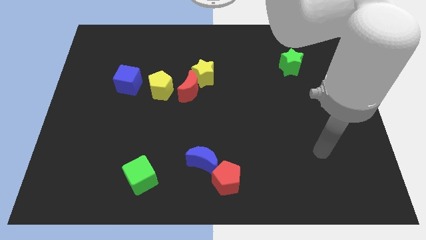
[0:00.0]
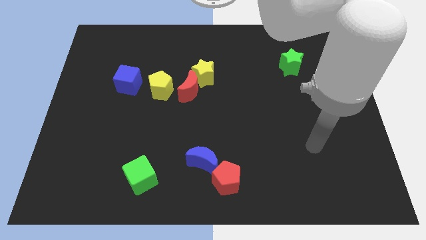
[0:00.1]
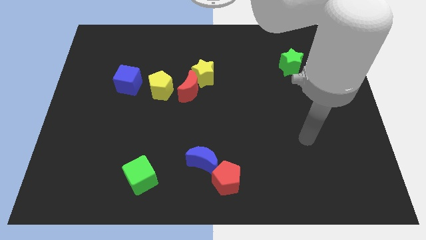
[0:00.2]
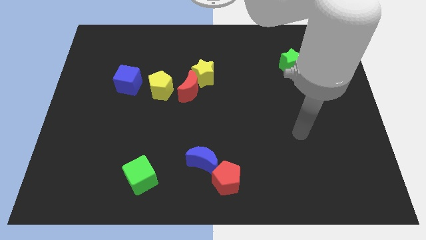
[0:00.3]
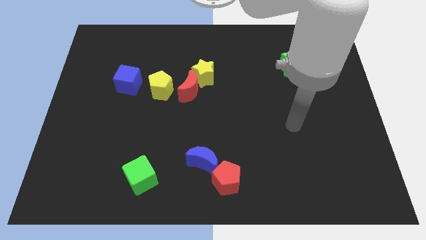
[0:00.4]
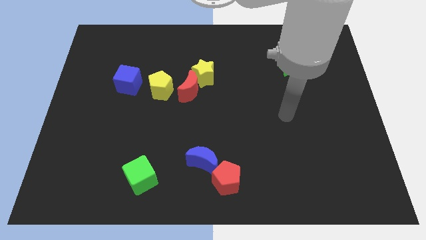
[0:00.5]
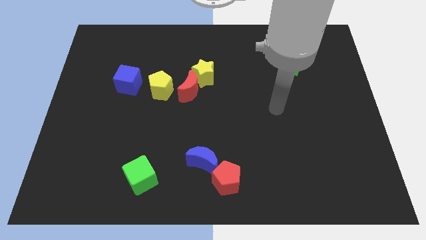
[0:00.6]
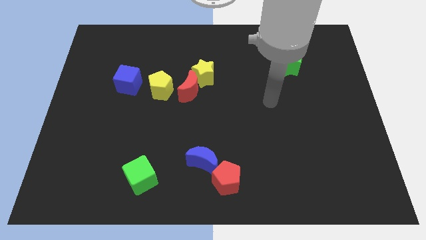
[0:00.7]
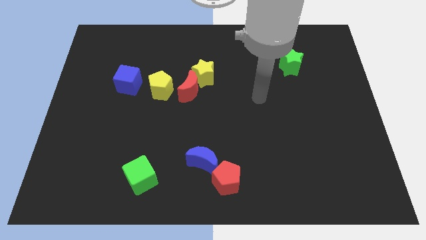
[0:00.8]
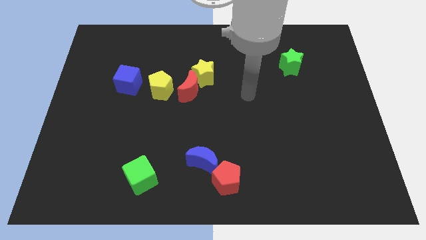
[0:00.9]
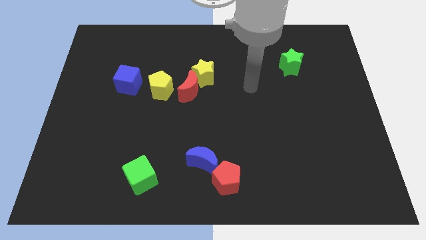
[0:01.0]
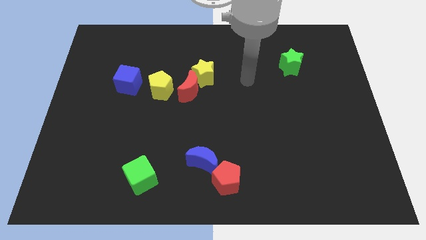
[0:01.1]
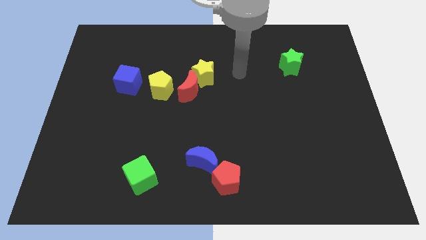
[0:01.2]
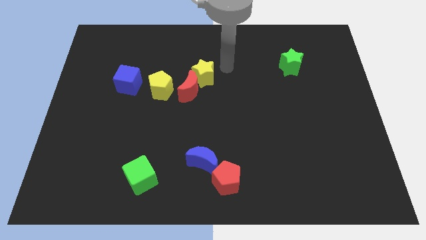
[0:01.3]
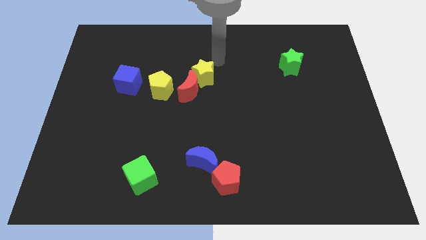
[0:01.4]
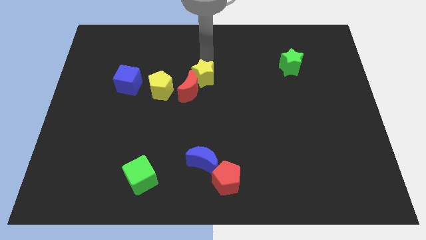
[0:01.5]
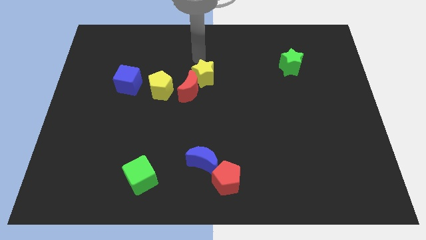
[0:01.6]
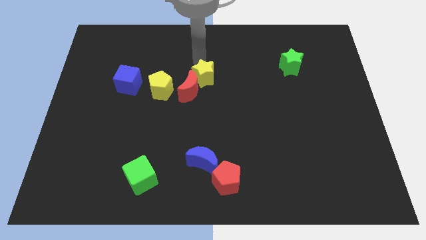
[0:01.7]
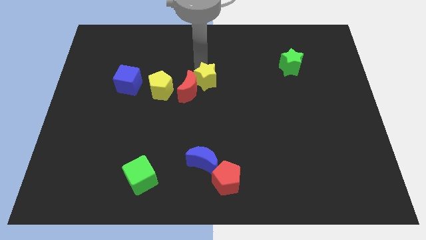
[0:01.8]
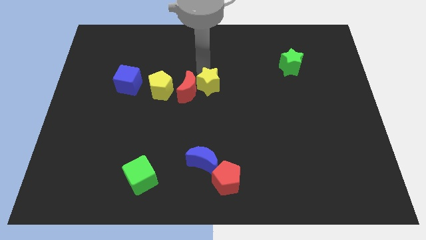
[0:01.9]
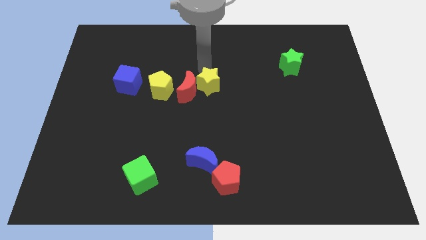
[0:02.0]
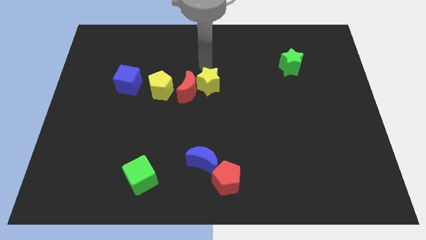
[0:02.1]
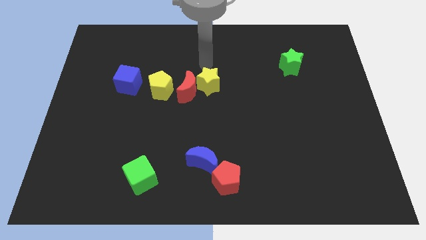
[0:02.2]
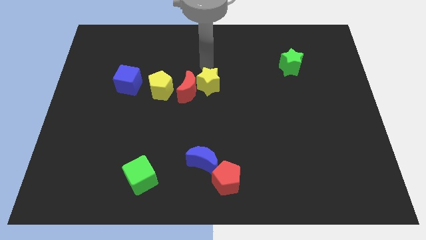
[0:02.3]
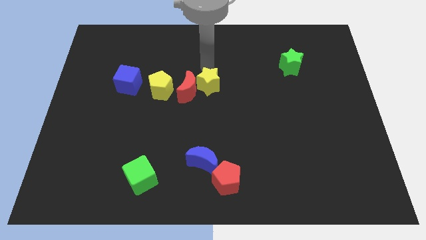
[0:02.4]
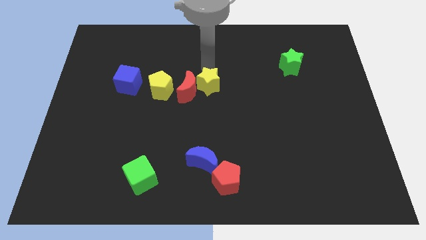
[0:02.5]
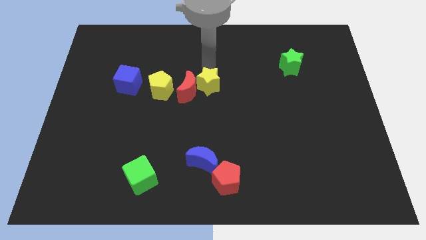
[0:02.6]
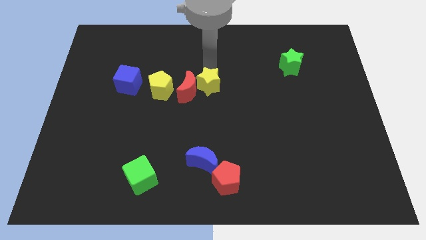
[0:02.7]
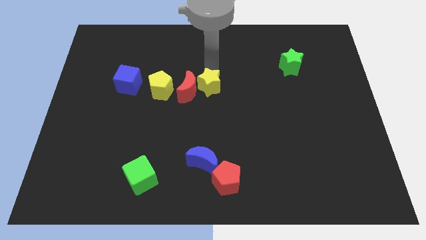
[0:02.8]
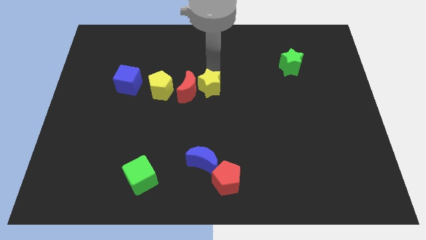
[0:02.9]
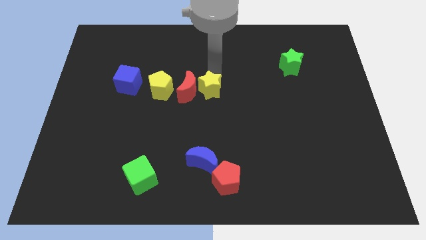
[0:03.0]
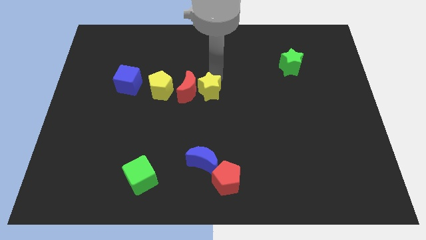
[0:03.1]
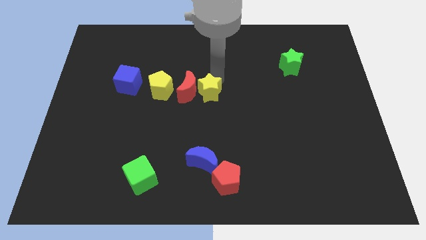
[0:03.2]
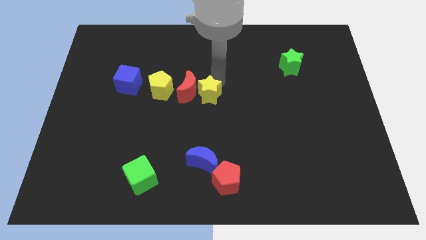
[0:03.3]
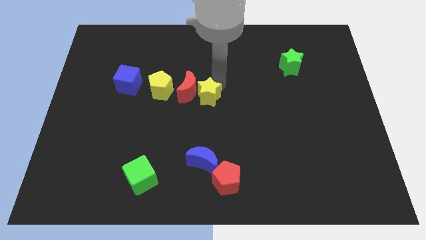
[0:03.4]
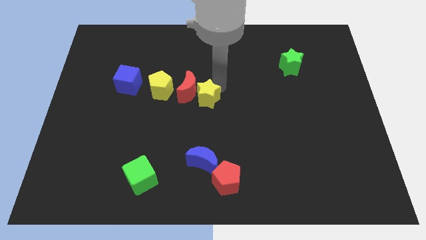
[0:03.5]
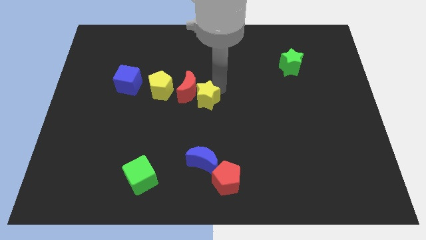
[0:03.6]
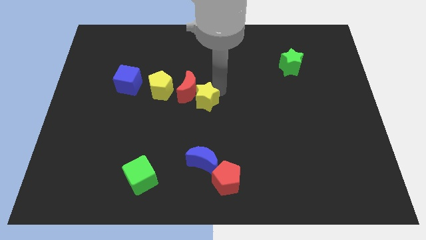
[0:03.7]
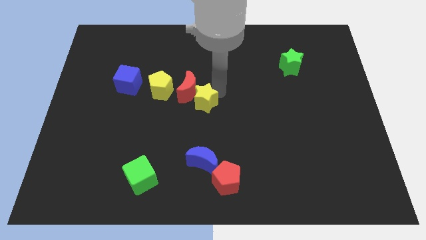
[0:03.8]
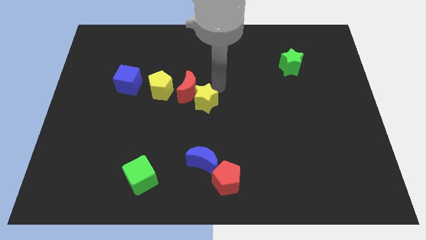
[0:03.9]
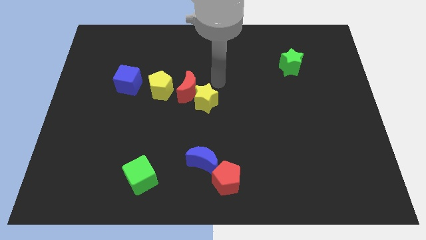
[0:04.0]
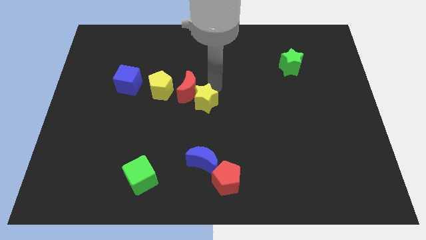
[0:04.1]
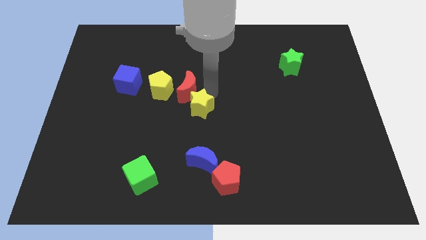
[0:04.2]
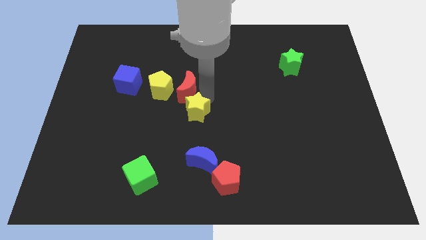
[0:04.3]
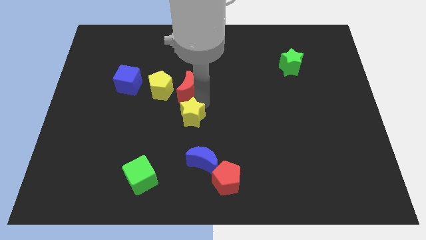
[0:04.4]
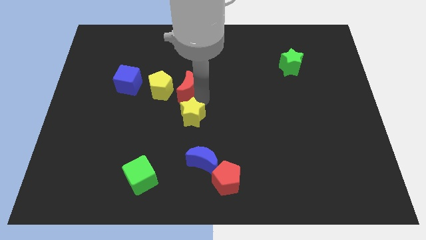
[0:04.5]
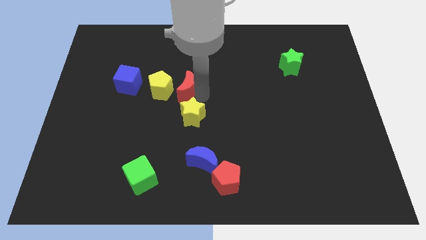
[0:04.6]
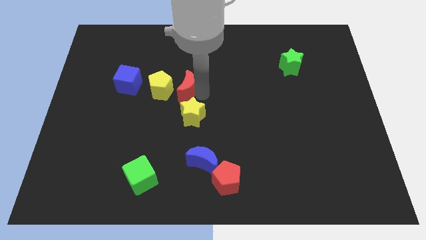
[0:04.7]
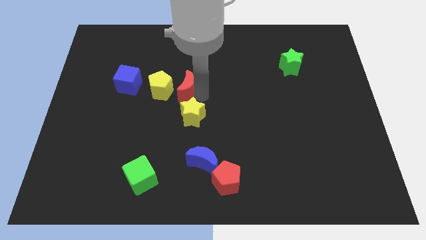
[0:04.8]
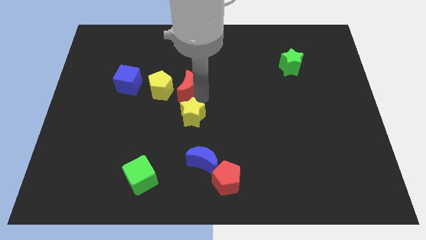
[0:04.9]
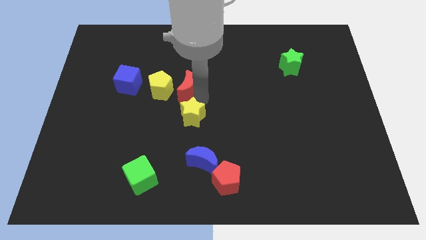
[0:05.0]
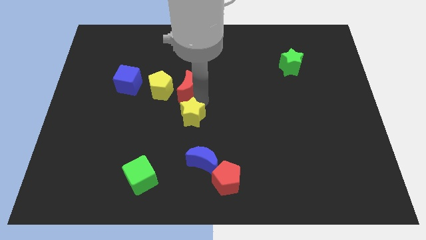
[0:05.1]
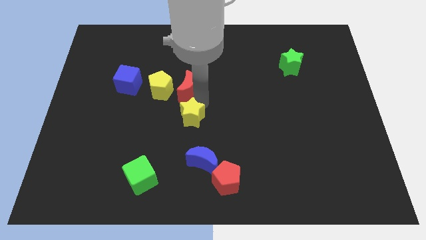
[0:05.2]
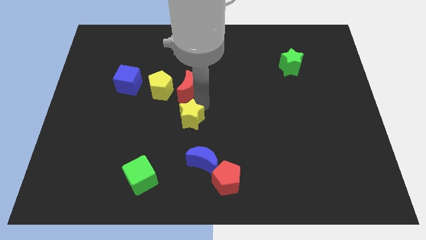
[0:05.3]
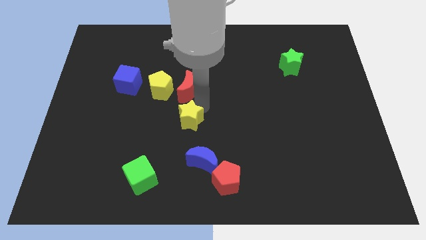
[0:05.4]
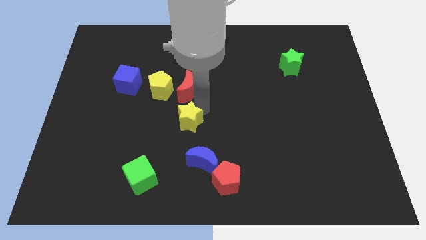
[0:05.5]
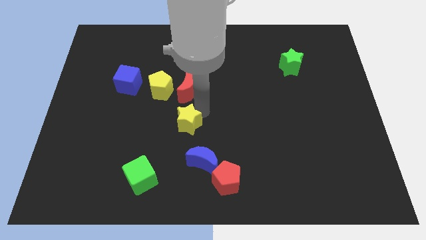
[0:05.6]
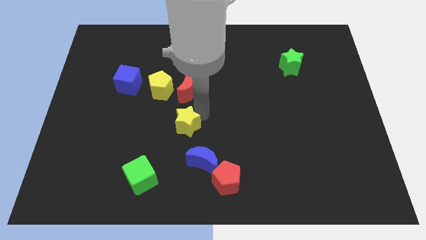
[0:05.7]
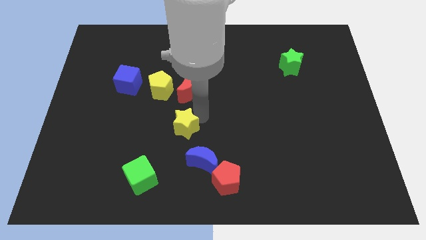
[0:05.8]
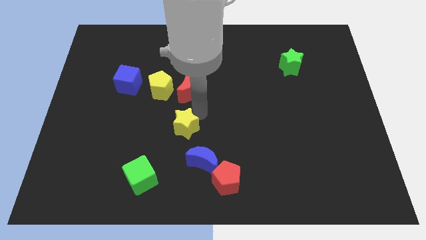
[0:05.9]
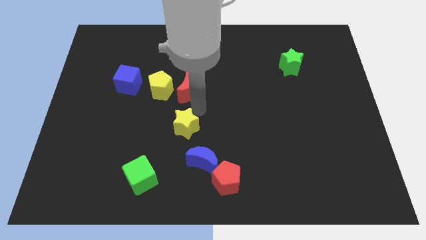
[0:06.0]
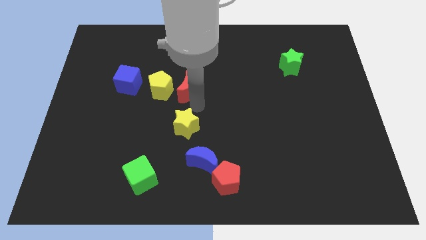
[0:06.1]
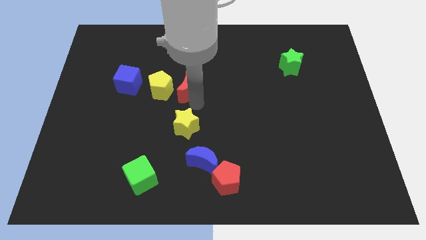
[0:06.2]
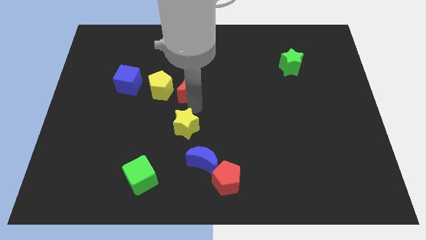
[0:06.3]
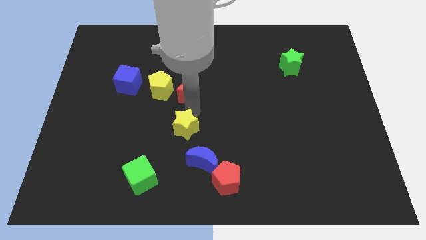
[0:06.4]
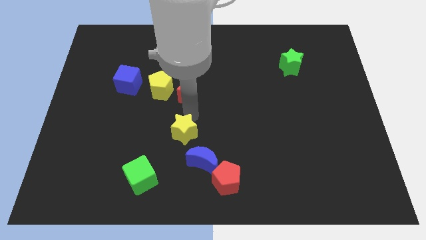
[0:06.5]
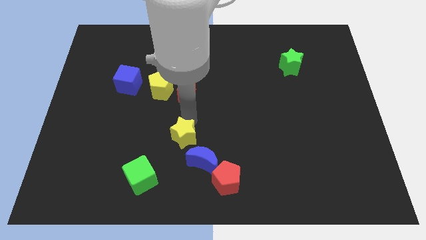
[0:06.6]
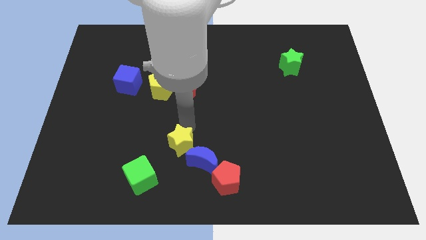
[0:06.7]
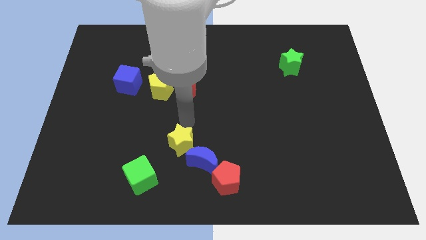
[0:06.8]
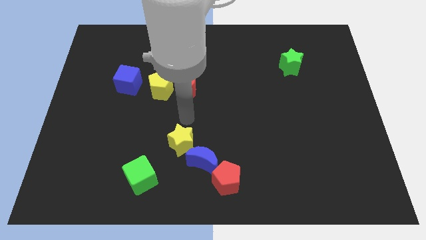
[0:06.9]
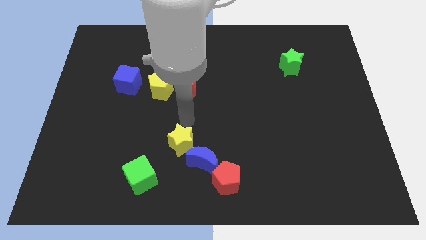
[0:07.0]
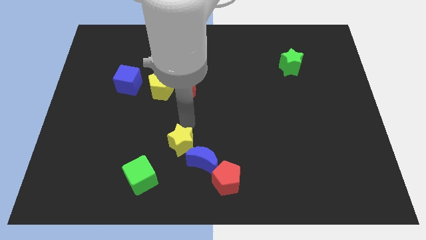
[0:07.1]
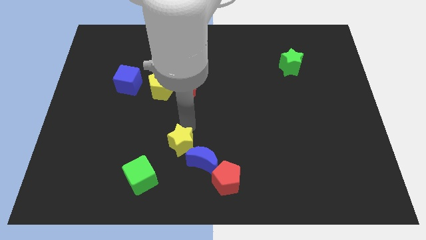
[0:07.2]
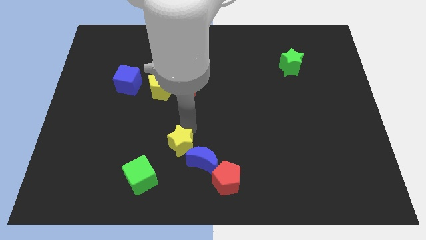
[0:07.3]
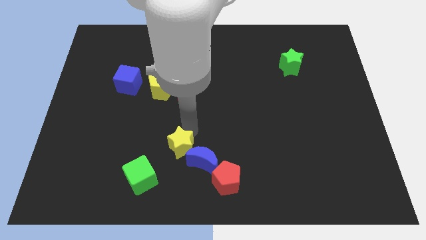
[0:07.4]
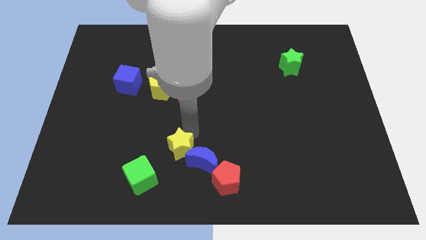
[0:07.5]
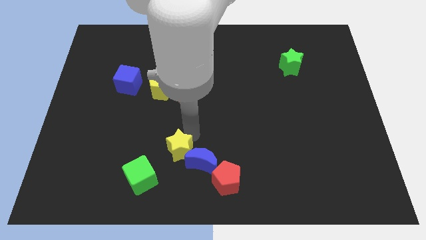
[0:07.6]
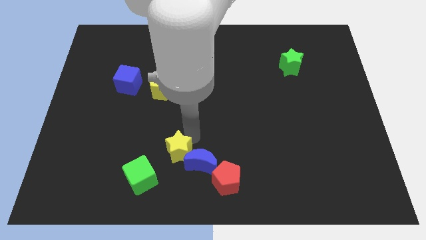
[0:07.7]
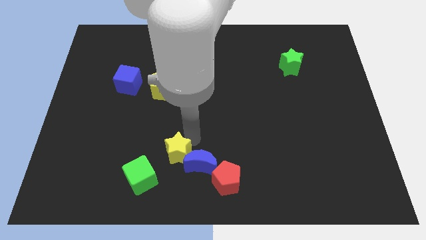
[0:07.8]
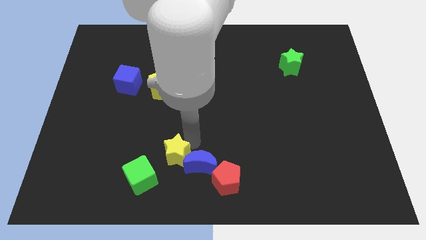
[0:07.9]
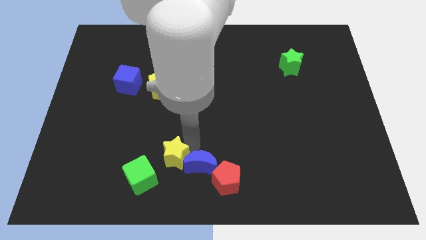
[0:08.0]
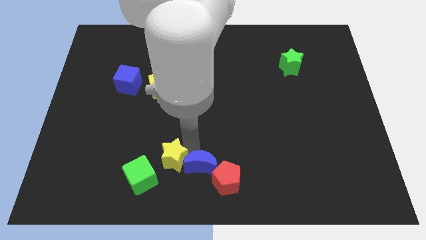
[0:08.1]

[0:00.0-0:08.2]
push the yellow star to the left of the red pentagon
